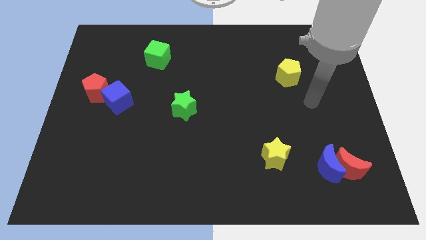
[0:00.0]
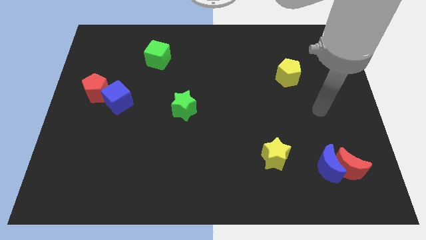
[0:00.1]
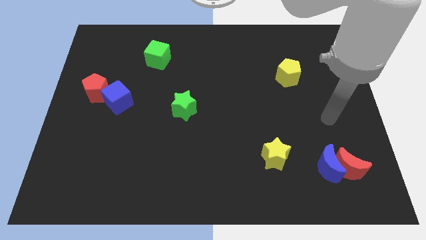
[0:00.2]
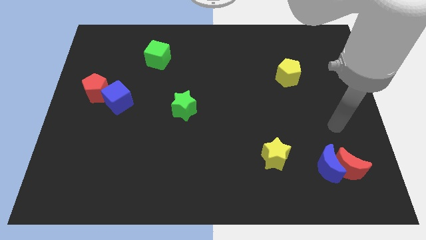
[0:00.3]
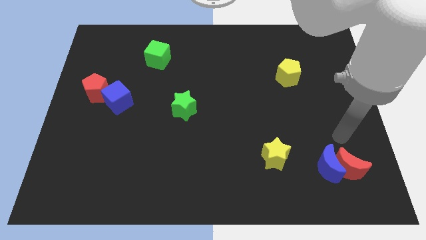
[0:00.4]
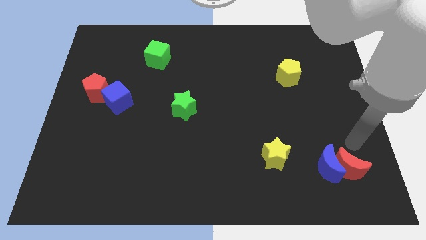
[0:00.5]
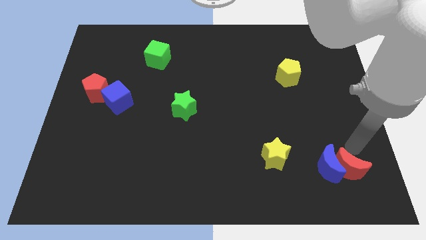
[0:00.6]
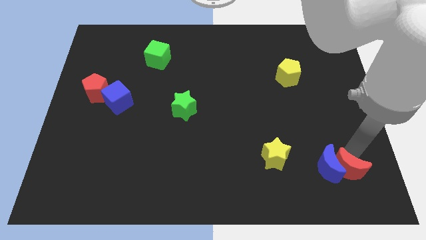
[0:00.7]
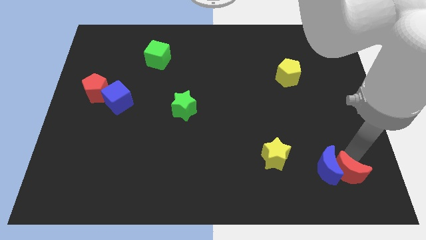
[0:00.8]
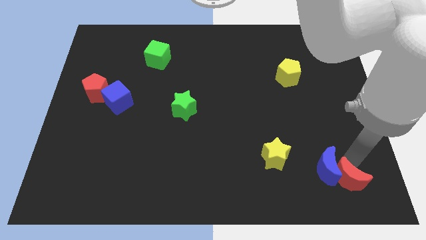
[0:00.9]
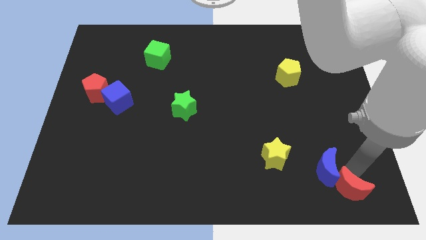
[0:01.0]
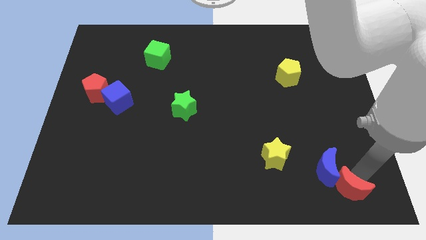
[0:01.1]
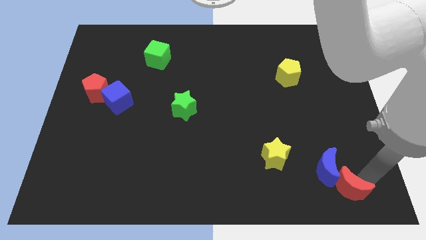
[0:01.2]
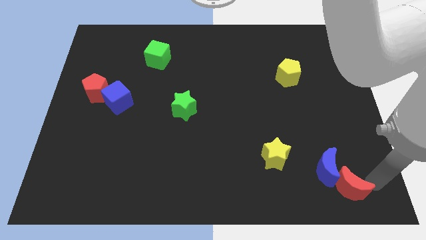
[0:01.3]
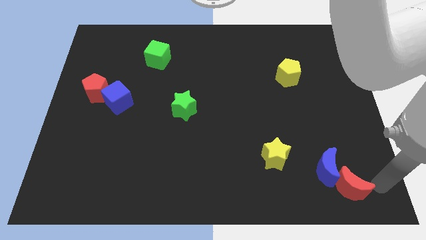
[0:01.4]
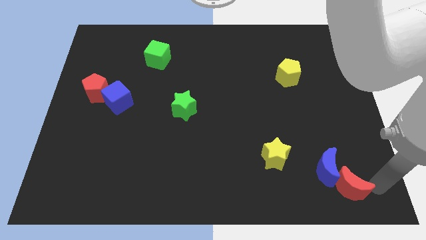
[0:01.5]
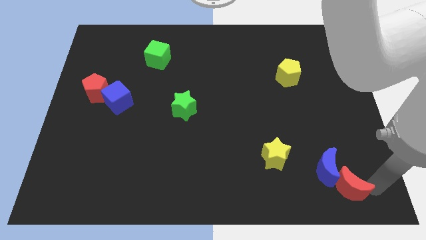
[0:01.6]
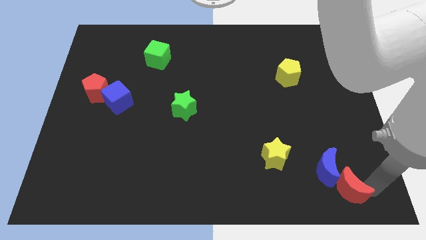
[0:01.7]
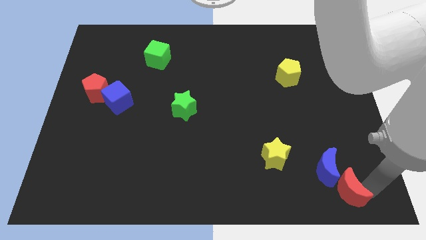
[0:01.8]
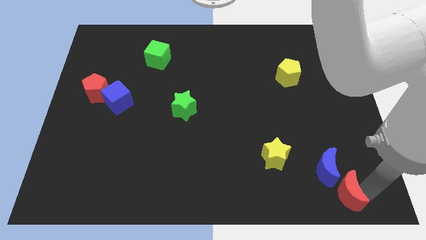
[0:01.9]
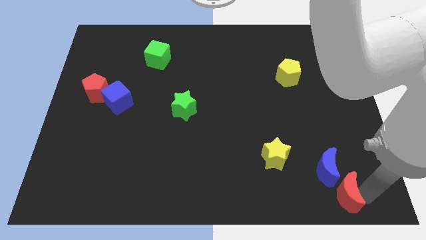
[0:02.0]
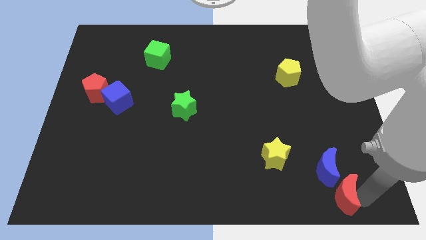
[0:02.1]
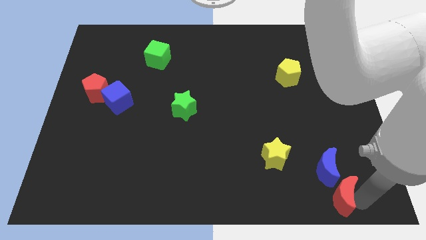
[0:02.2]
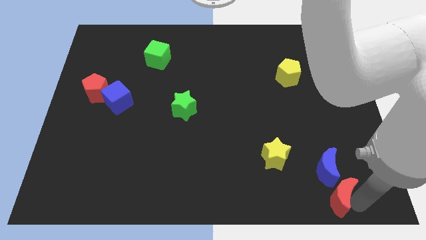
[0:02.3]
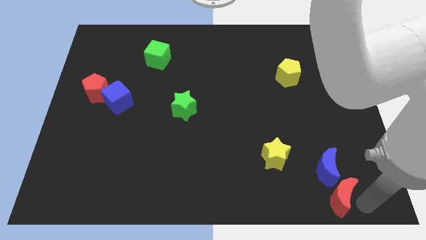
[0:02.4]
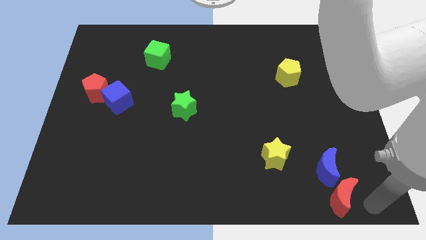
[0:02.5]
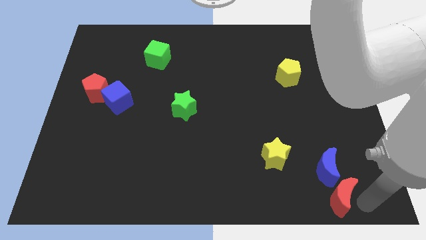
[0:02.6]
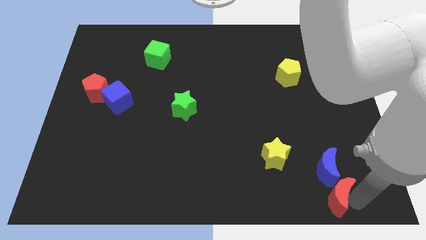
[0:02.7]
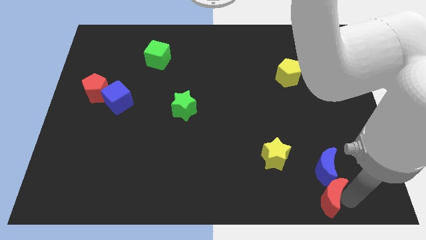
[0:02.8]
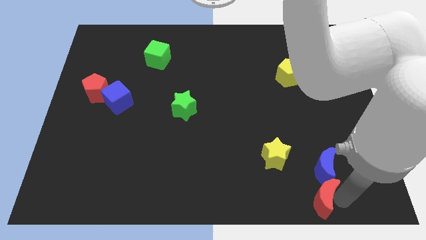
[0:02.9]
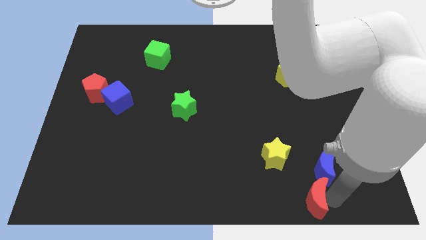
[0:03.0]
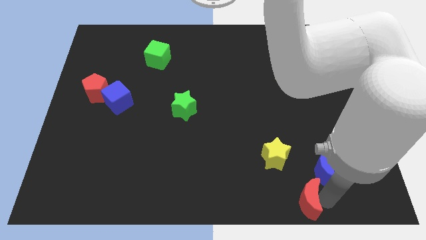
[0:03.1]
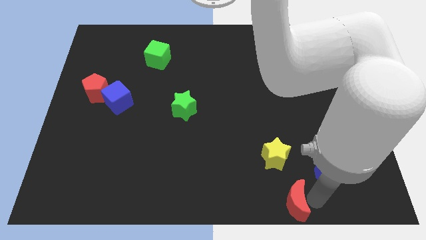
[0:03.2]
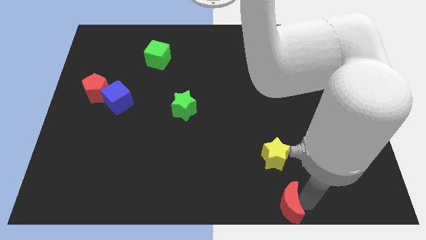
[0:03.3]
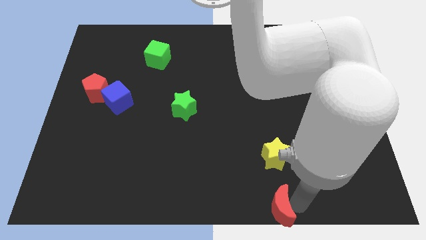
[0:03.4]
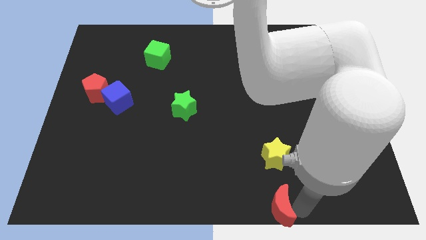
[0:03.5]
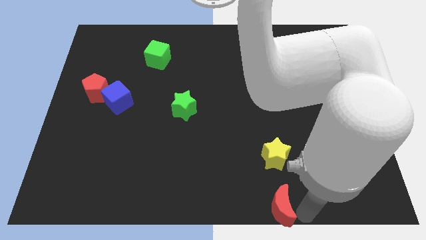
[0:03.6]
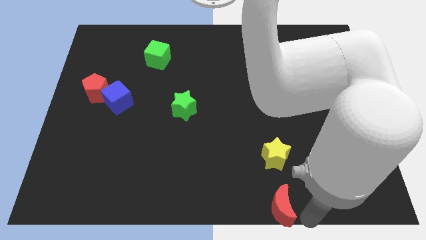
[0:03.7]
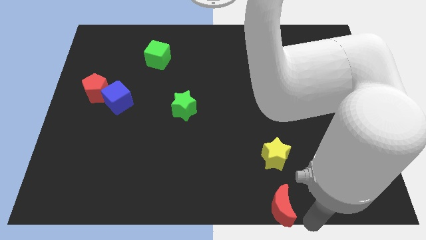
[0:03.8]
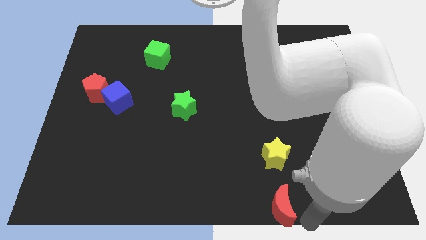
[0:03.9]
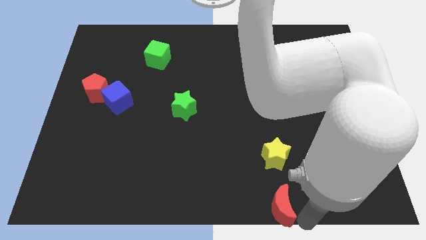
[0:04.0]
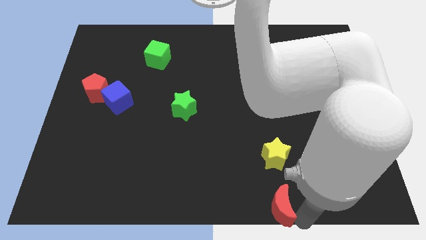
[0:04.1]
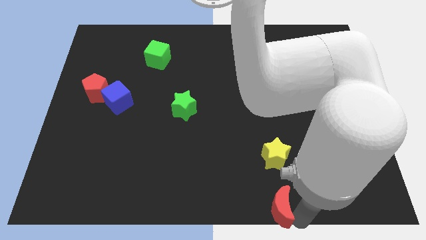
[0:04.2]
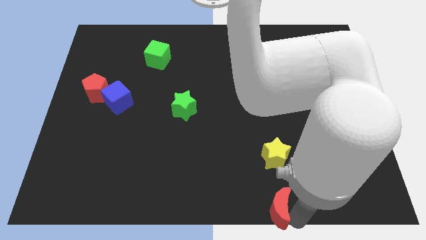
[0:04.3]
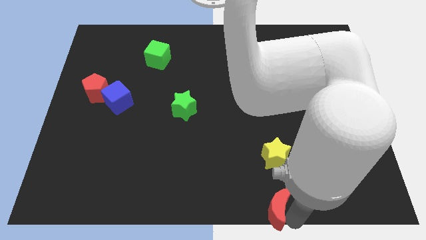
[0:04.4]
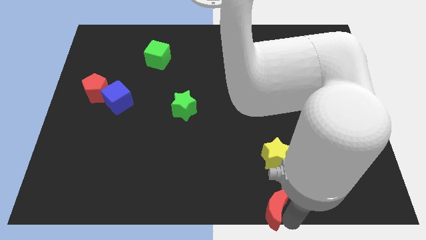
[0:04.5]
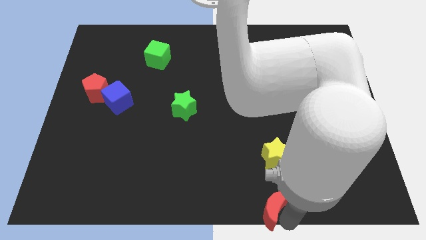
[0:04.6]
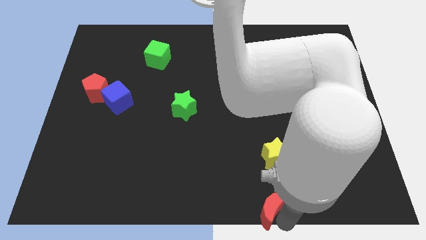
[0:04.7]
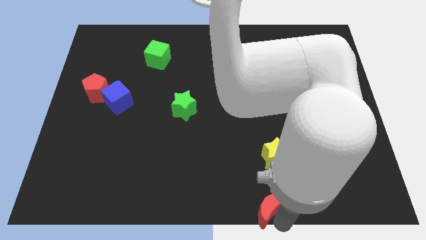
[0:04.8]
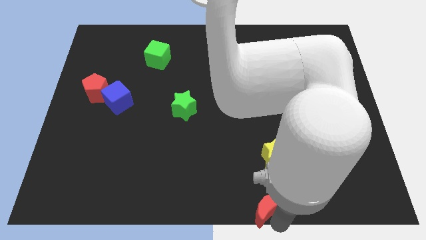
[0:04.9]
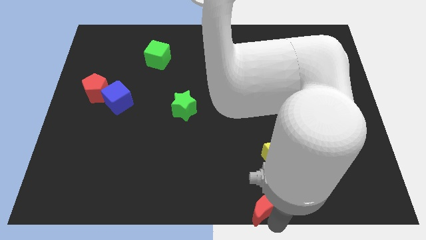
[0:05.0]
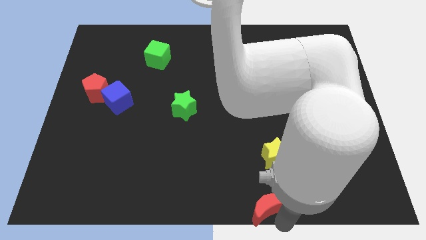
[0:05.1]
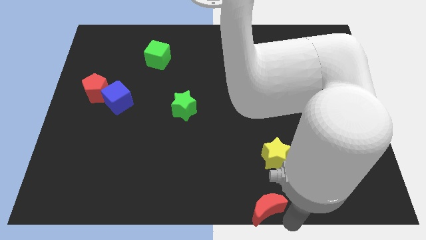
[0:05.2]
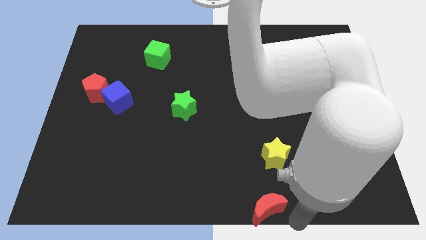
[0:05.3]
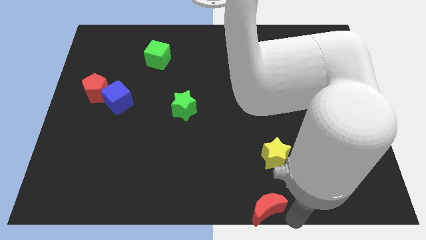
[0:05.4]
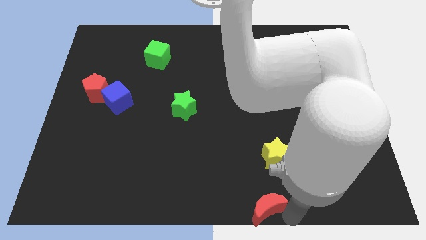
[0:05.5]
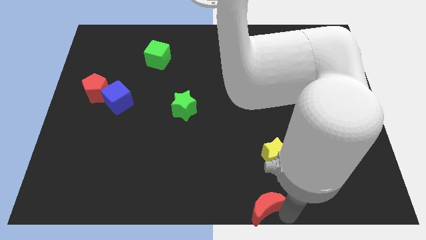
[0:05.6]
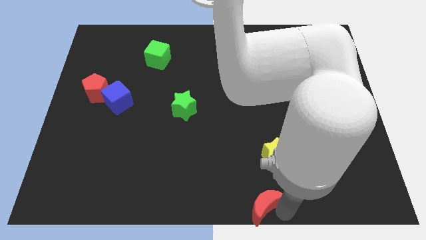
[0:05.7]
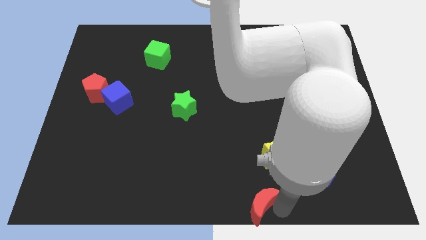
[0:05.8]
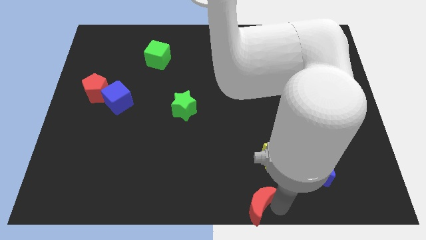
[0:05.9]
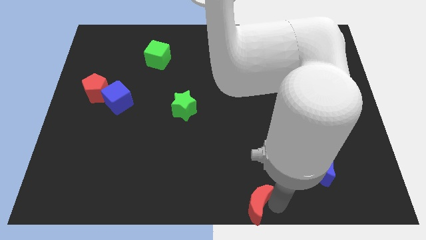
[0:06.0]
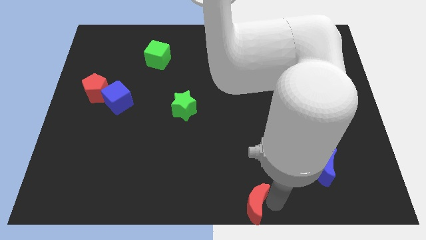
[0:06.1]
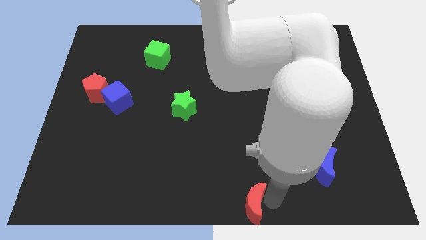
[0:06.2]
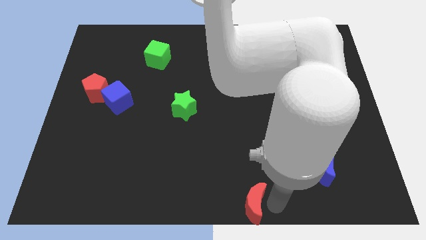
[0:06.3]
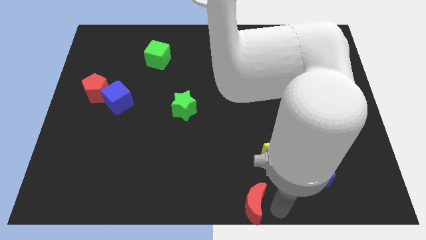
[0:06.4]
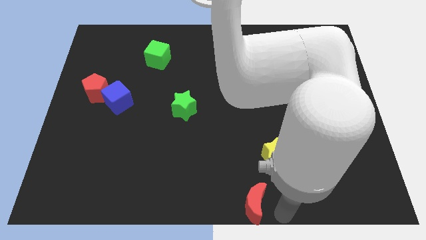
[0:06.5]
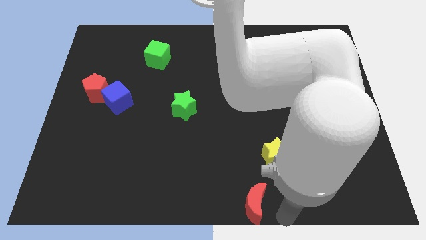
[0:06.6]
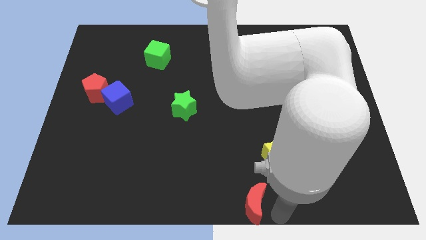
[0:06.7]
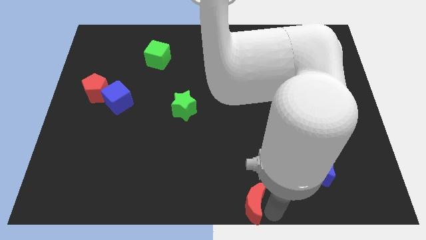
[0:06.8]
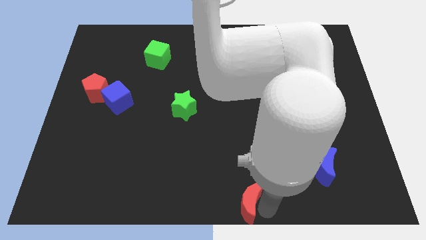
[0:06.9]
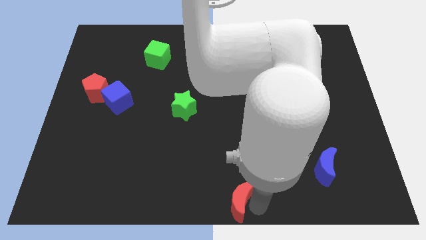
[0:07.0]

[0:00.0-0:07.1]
push the red moon to the left
